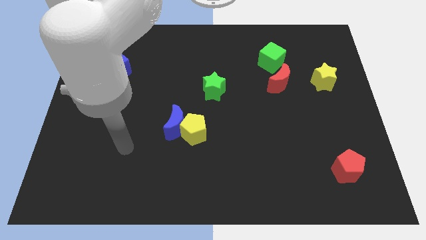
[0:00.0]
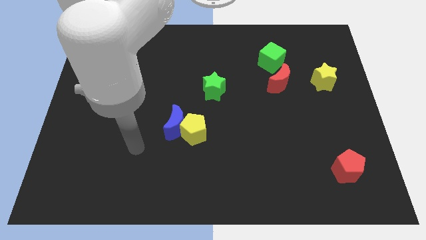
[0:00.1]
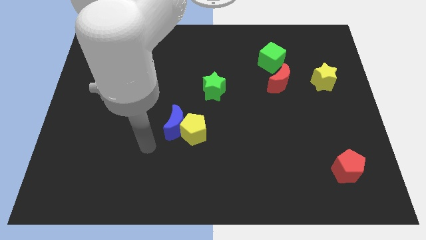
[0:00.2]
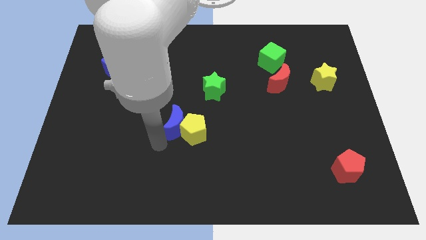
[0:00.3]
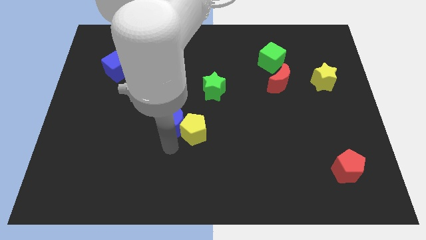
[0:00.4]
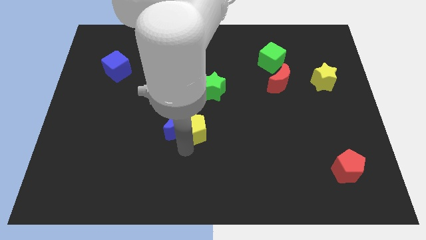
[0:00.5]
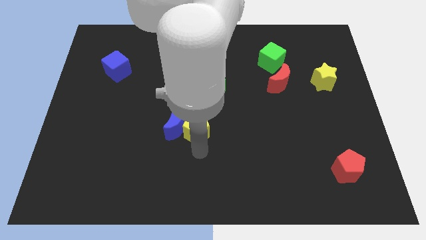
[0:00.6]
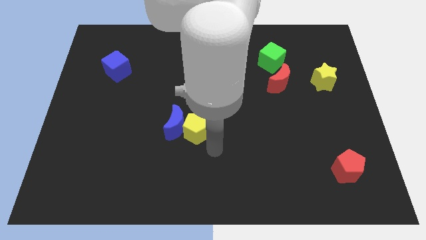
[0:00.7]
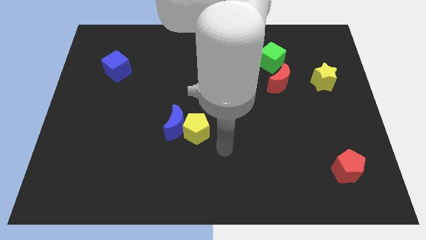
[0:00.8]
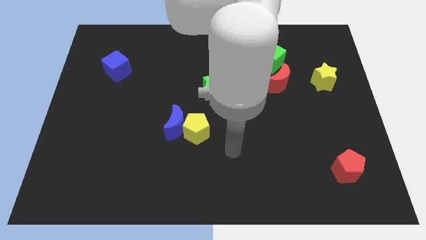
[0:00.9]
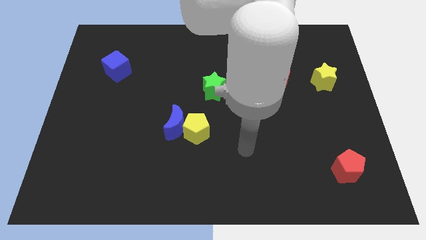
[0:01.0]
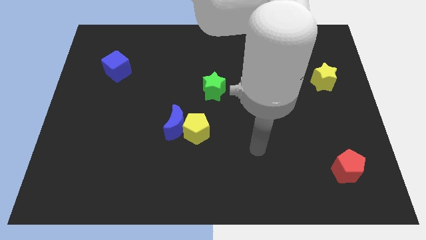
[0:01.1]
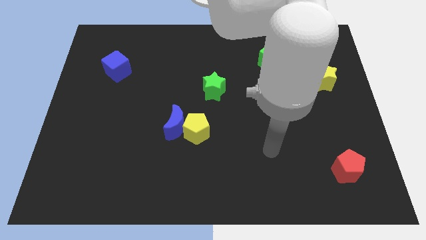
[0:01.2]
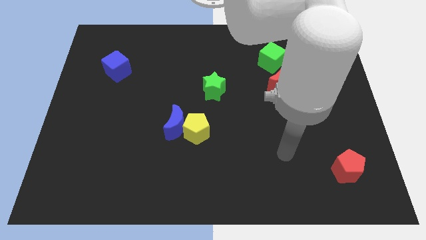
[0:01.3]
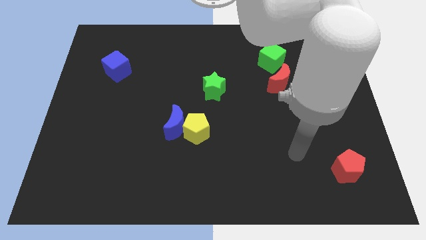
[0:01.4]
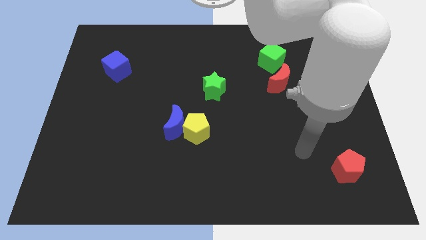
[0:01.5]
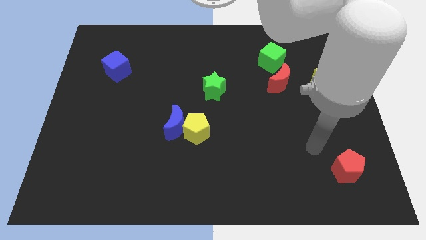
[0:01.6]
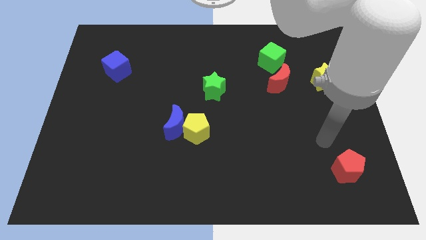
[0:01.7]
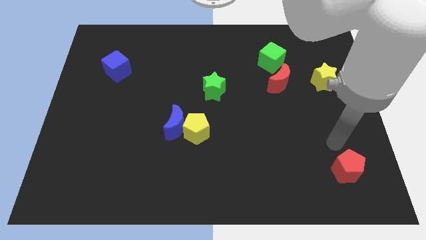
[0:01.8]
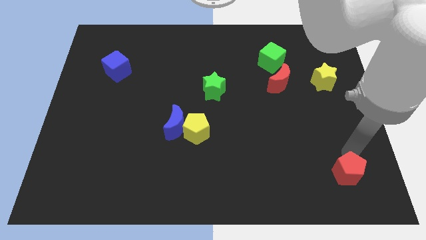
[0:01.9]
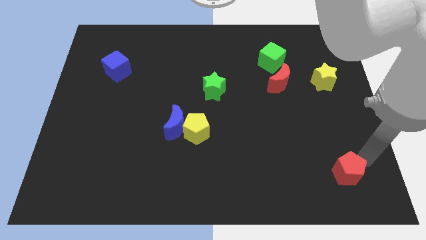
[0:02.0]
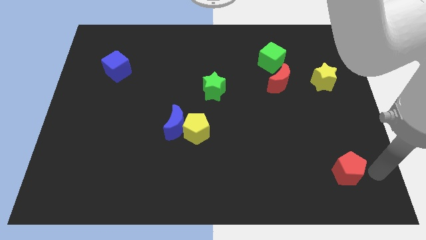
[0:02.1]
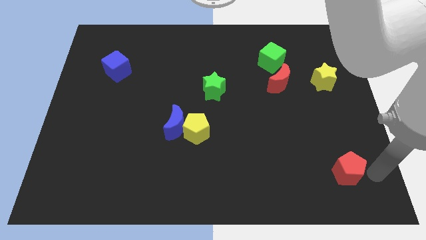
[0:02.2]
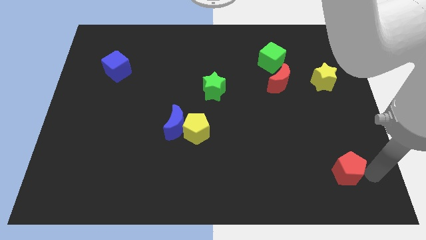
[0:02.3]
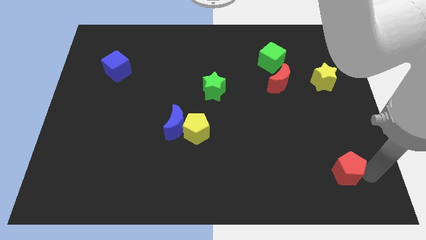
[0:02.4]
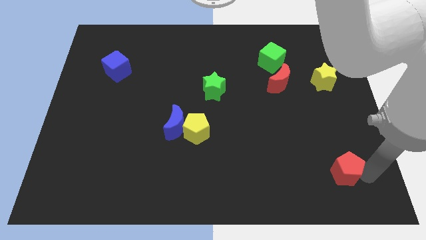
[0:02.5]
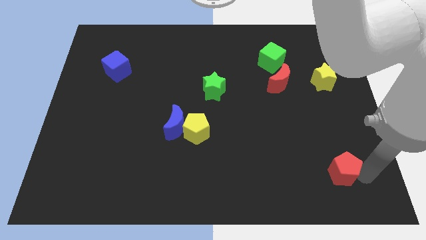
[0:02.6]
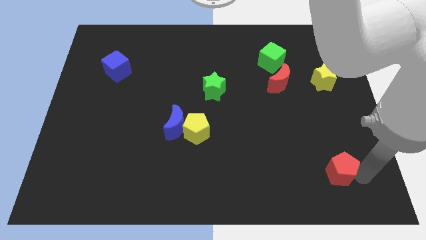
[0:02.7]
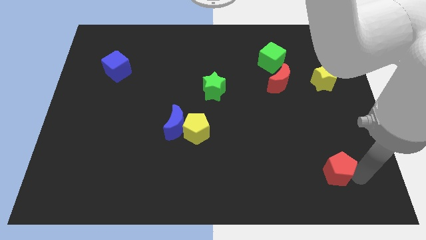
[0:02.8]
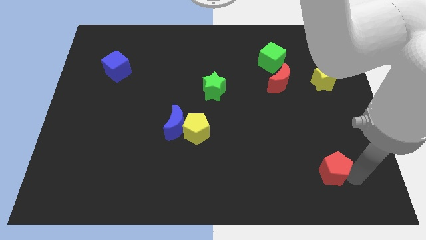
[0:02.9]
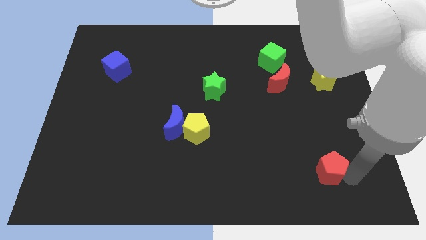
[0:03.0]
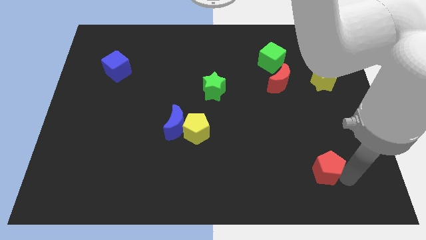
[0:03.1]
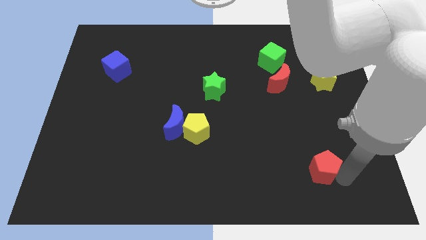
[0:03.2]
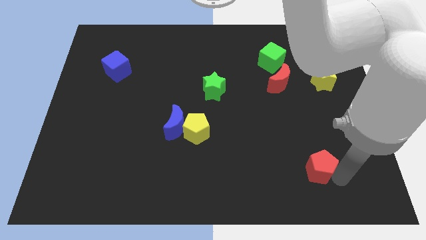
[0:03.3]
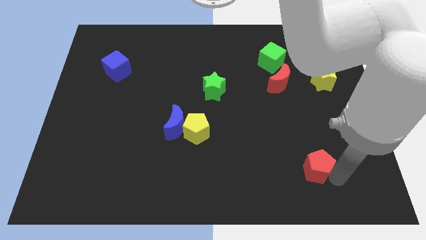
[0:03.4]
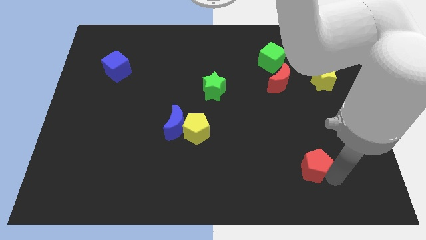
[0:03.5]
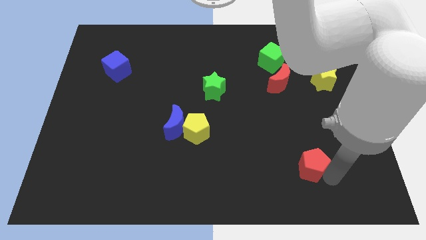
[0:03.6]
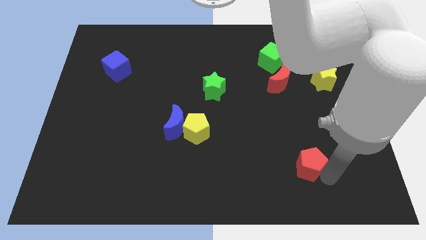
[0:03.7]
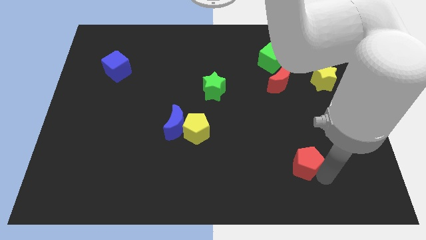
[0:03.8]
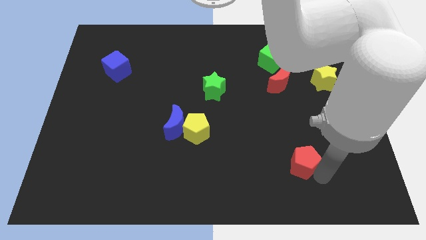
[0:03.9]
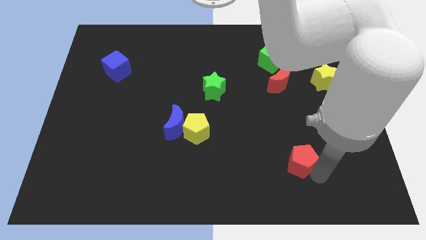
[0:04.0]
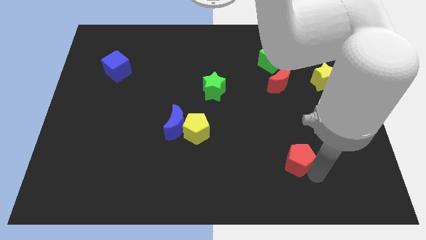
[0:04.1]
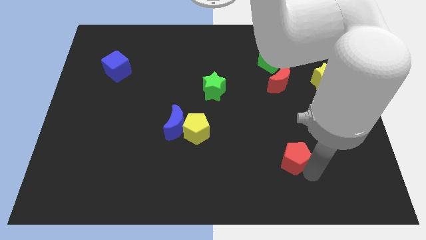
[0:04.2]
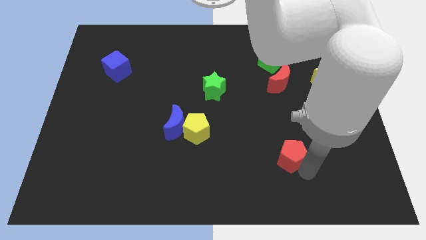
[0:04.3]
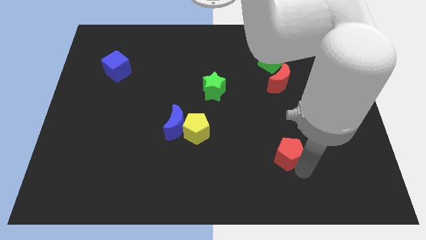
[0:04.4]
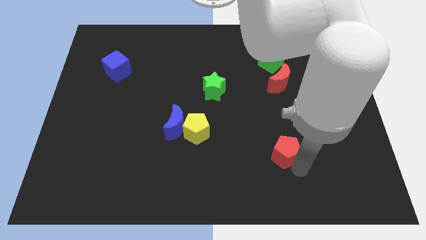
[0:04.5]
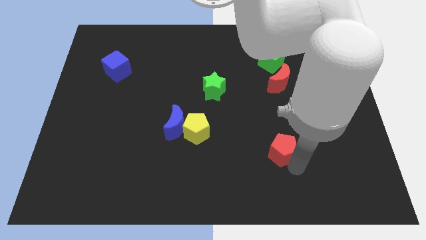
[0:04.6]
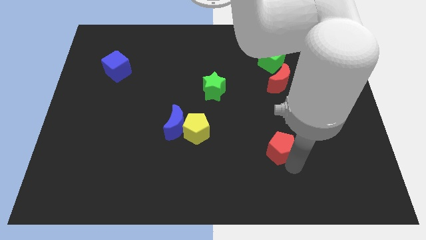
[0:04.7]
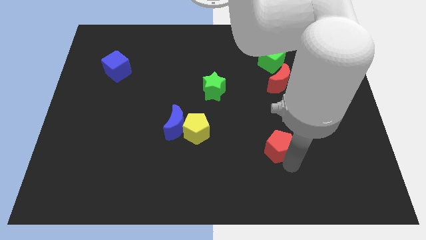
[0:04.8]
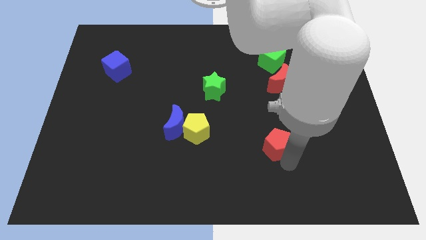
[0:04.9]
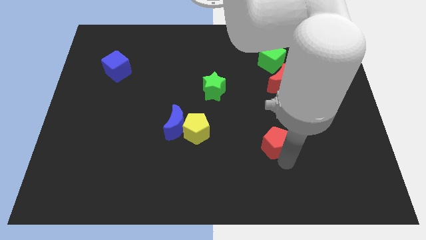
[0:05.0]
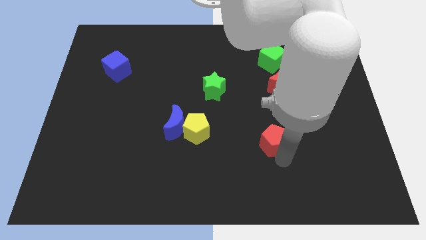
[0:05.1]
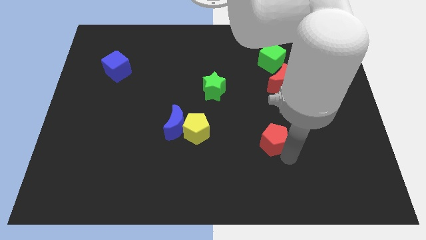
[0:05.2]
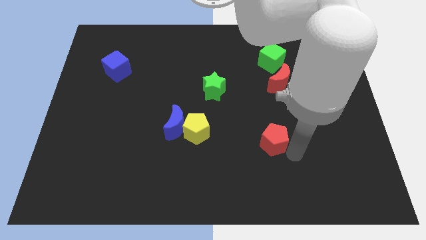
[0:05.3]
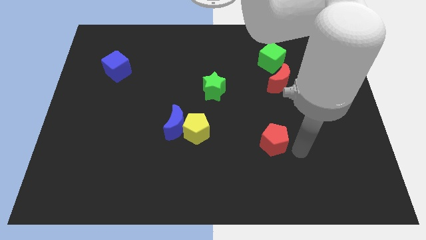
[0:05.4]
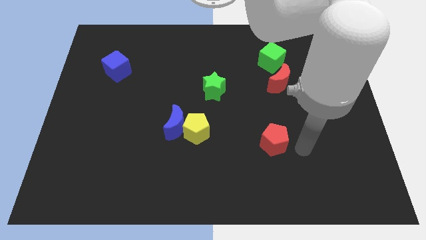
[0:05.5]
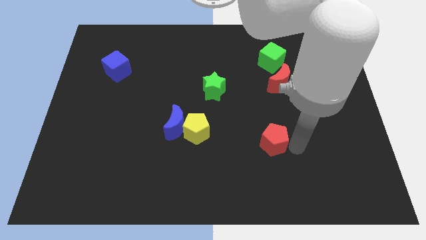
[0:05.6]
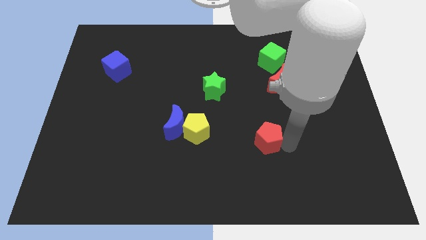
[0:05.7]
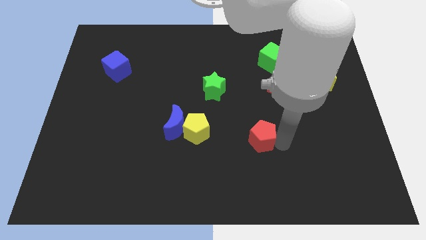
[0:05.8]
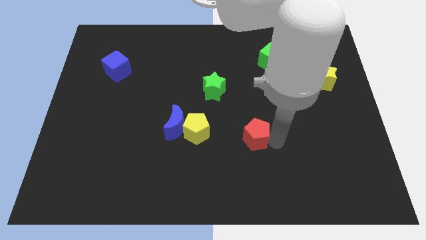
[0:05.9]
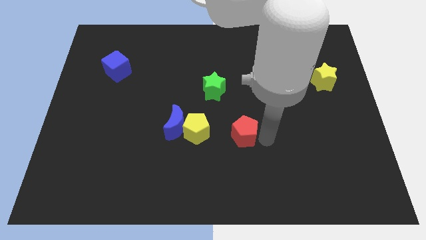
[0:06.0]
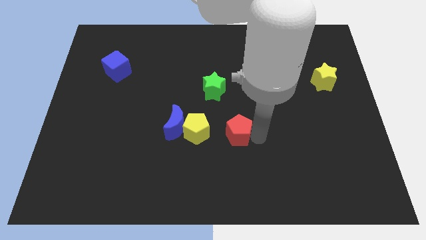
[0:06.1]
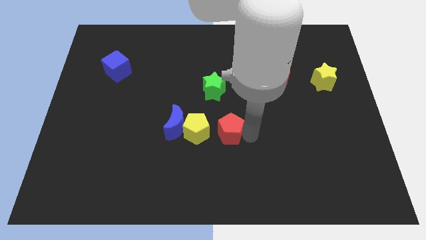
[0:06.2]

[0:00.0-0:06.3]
slide the red pentagon below the green star
